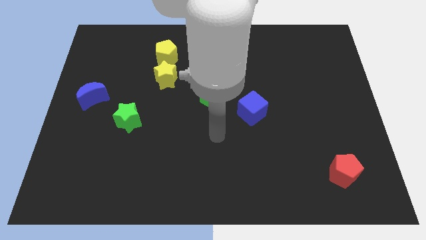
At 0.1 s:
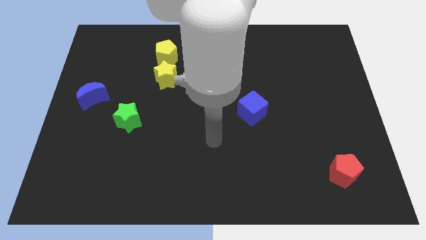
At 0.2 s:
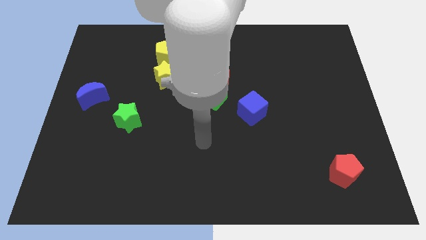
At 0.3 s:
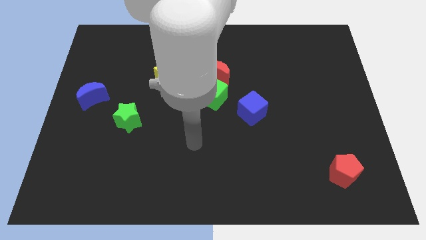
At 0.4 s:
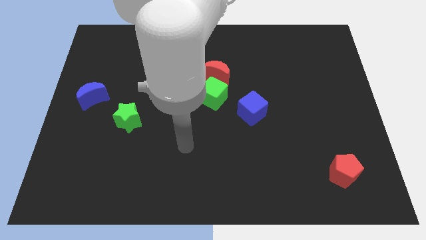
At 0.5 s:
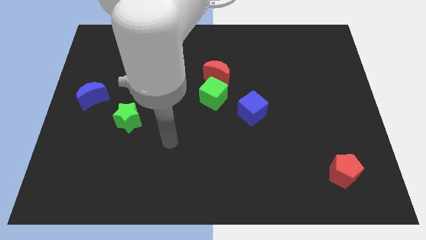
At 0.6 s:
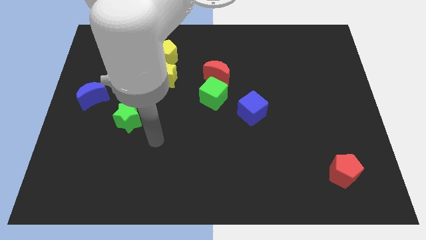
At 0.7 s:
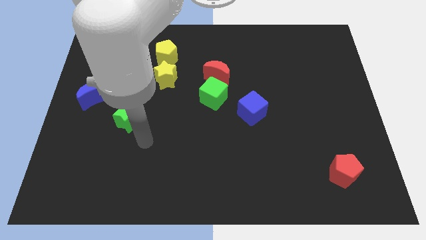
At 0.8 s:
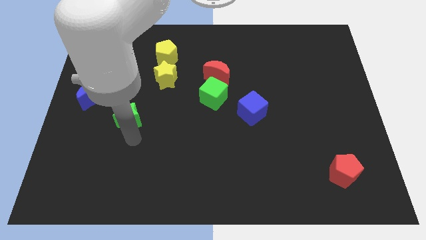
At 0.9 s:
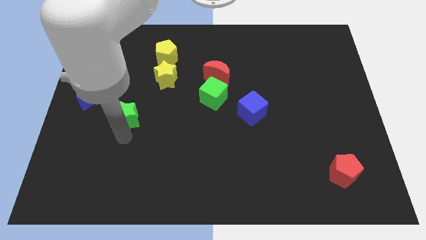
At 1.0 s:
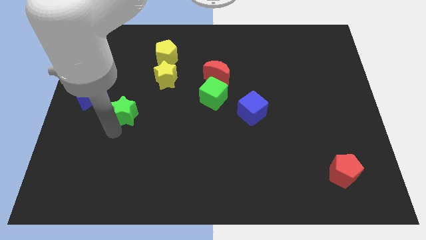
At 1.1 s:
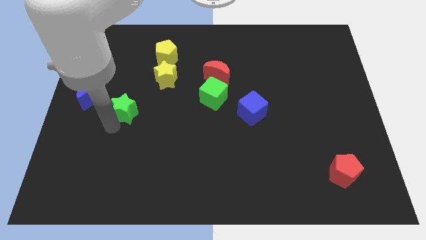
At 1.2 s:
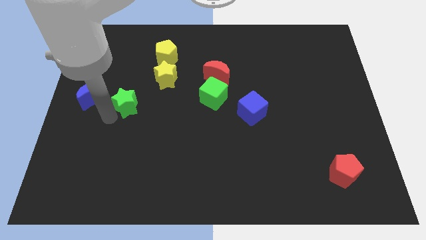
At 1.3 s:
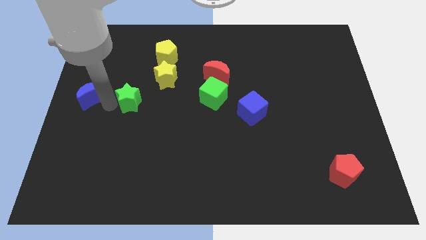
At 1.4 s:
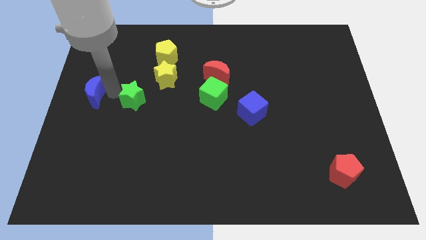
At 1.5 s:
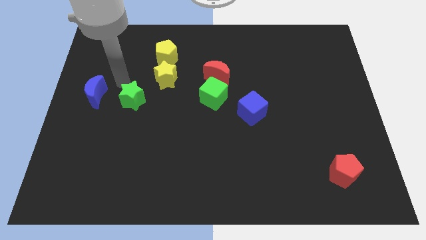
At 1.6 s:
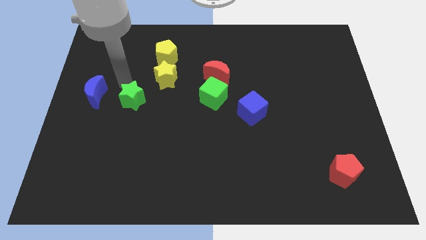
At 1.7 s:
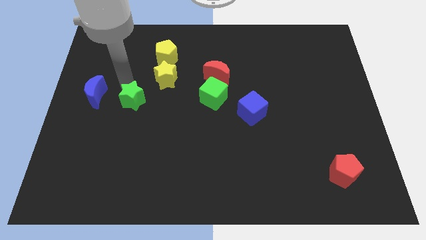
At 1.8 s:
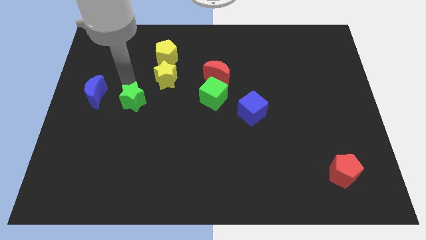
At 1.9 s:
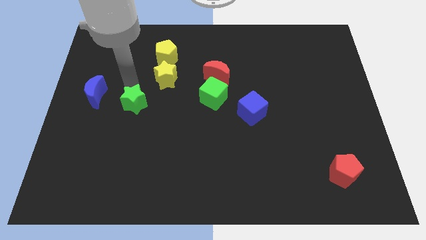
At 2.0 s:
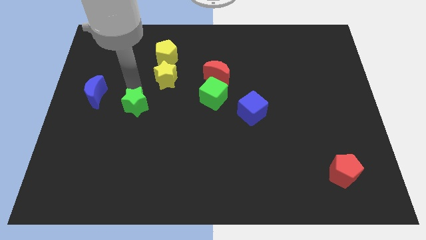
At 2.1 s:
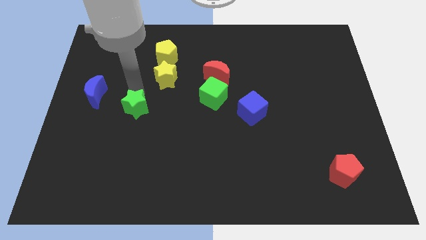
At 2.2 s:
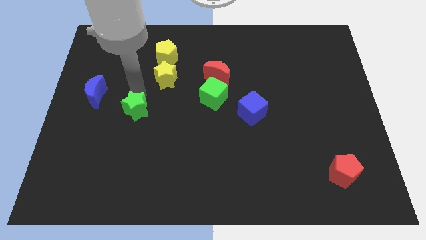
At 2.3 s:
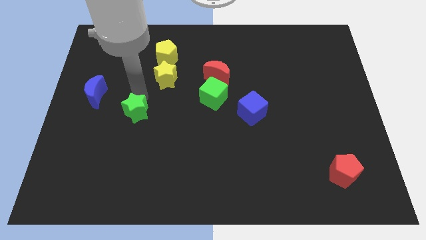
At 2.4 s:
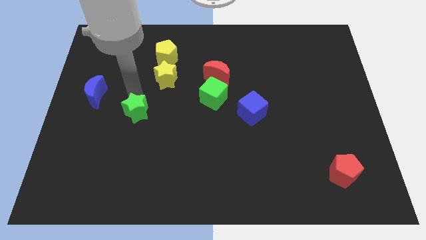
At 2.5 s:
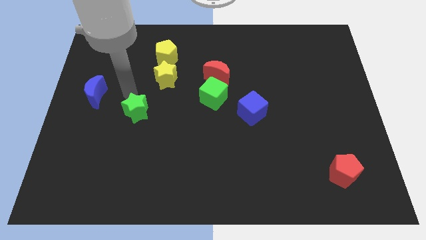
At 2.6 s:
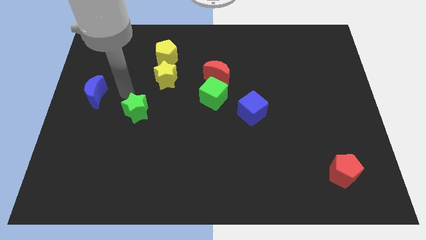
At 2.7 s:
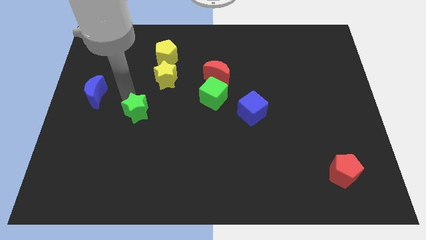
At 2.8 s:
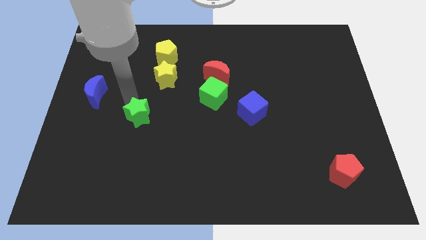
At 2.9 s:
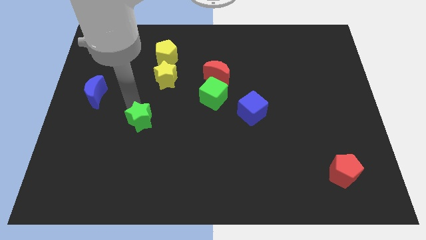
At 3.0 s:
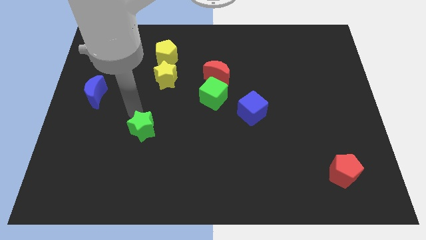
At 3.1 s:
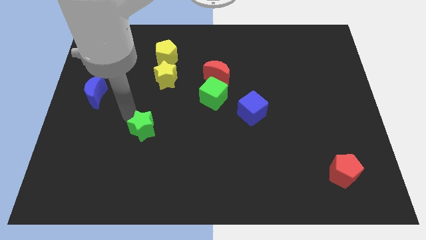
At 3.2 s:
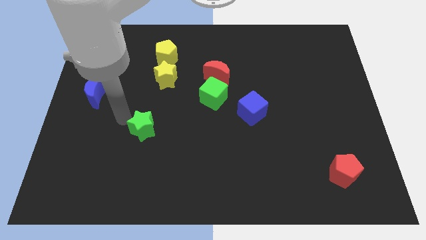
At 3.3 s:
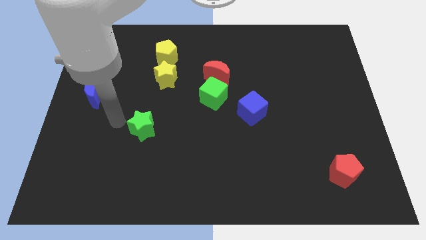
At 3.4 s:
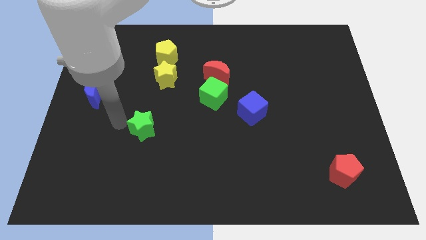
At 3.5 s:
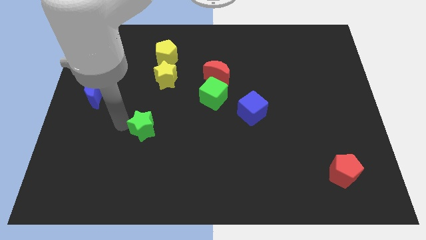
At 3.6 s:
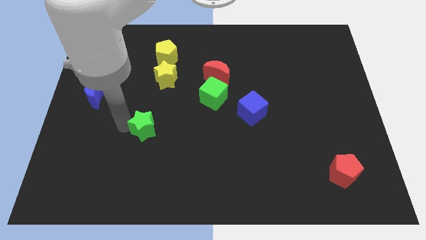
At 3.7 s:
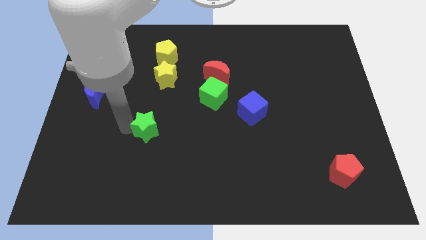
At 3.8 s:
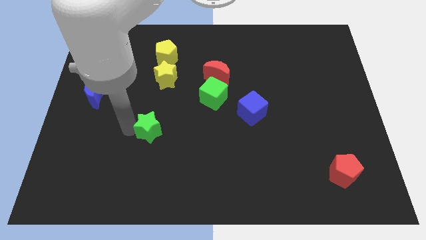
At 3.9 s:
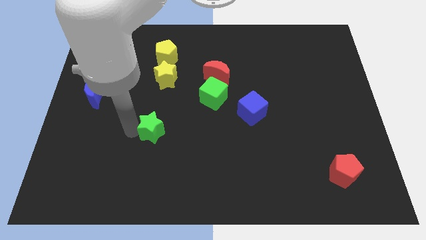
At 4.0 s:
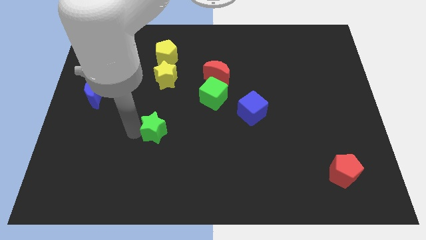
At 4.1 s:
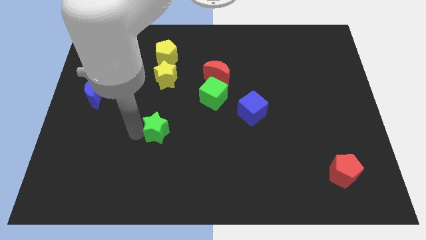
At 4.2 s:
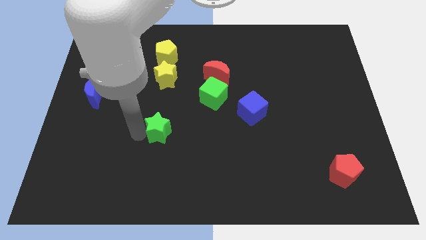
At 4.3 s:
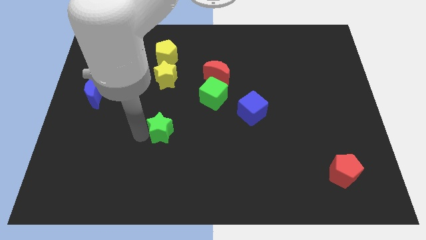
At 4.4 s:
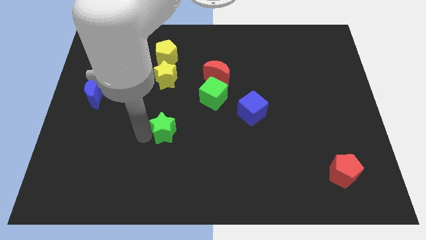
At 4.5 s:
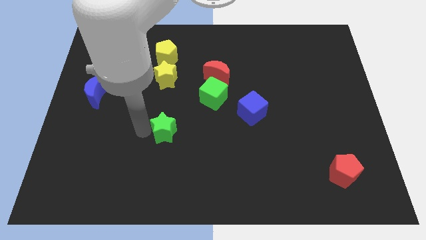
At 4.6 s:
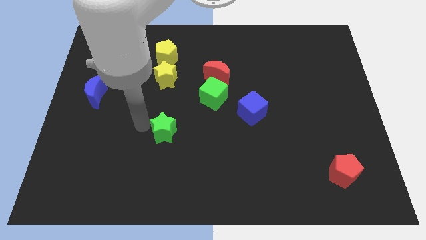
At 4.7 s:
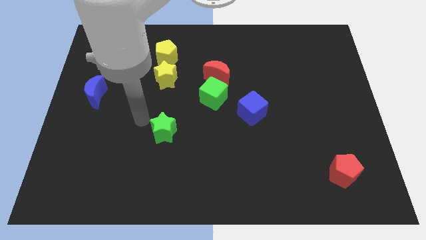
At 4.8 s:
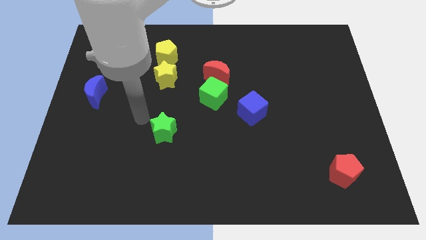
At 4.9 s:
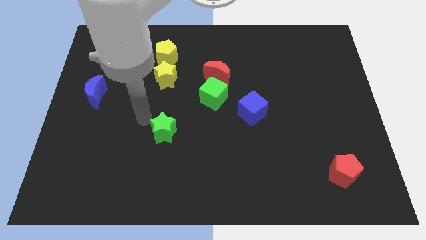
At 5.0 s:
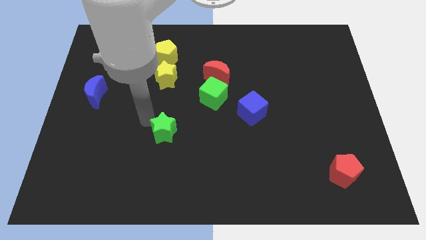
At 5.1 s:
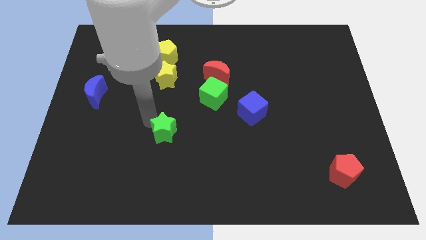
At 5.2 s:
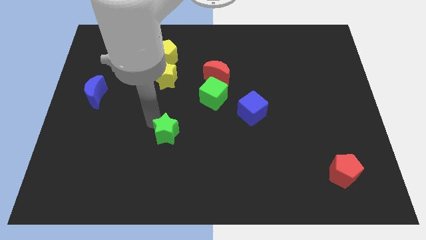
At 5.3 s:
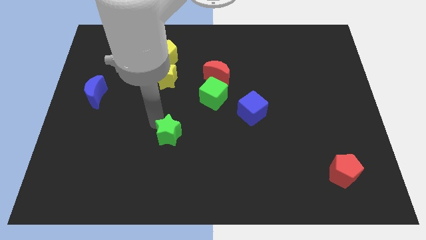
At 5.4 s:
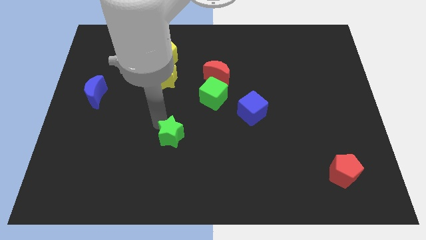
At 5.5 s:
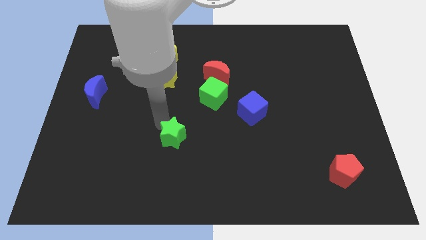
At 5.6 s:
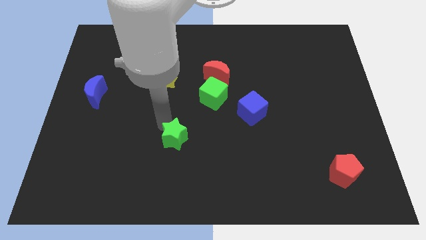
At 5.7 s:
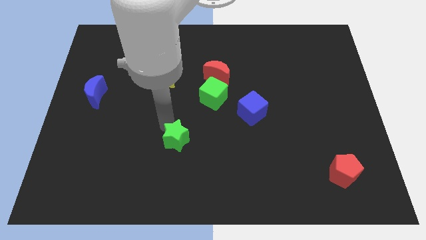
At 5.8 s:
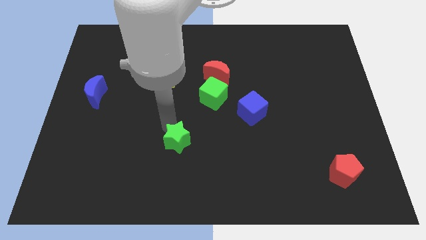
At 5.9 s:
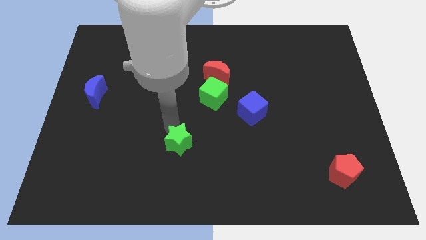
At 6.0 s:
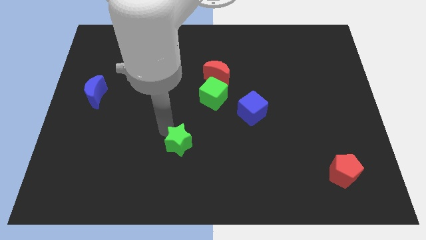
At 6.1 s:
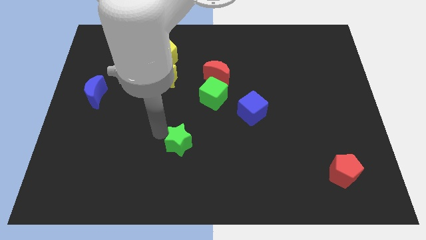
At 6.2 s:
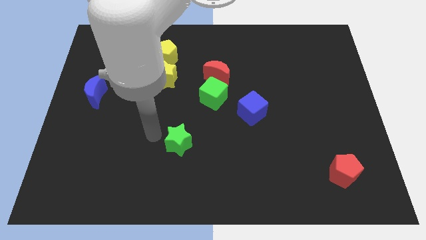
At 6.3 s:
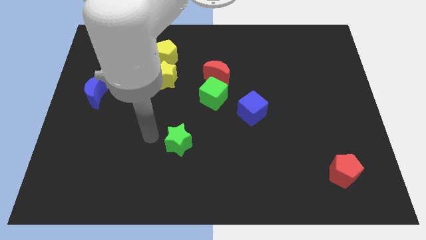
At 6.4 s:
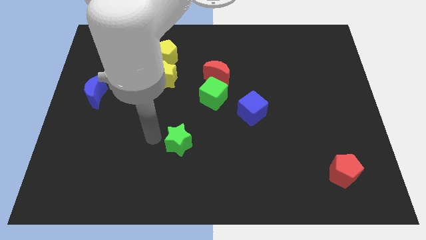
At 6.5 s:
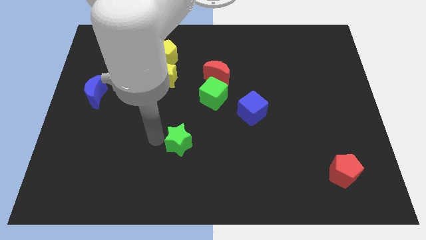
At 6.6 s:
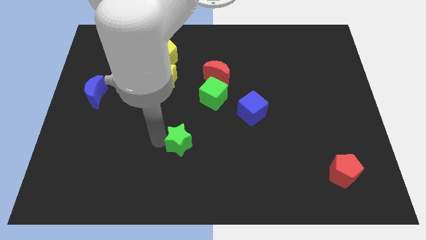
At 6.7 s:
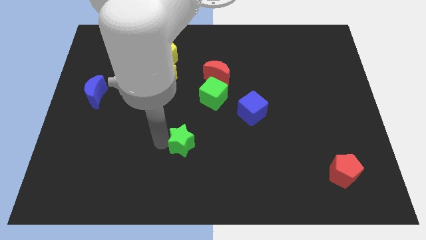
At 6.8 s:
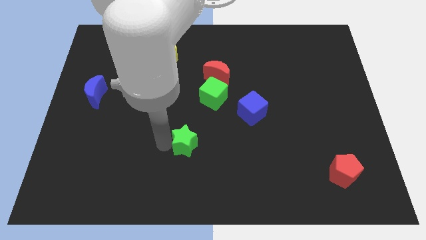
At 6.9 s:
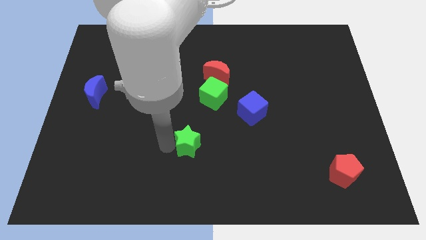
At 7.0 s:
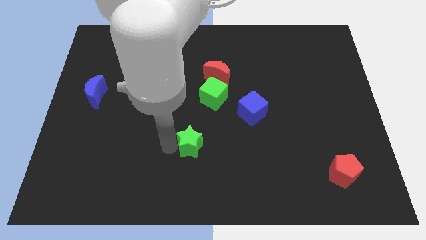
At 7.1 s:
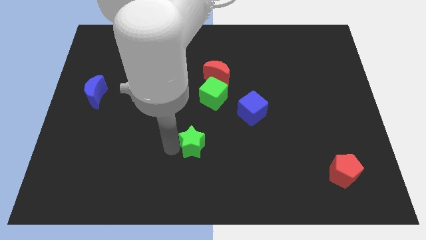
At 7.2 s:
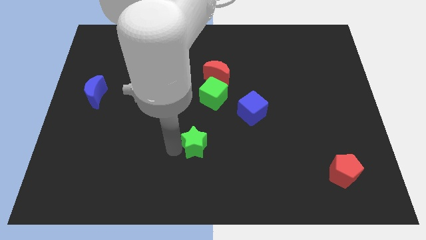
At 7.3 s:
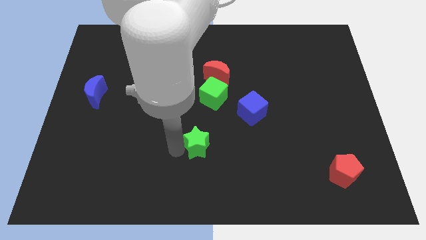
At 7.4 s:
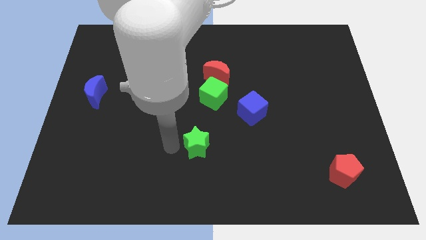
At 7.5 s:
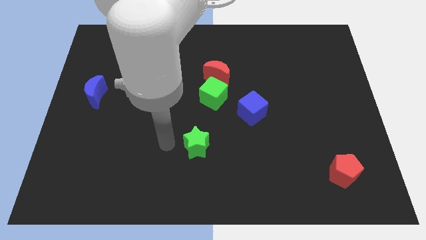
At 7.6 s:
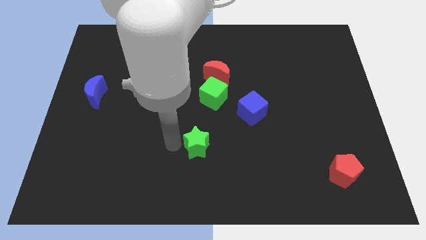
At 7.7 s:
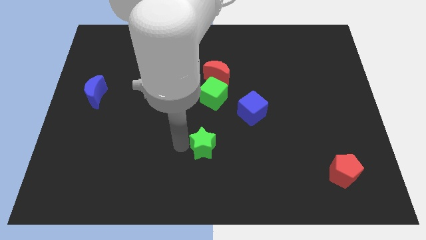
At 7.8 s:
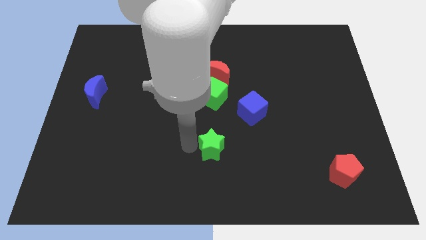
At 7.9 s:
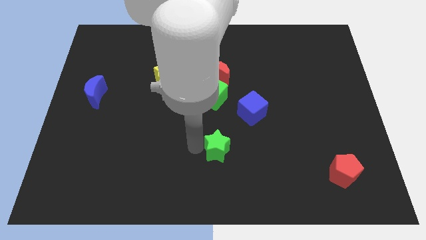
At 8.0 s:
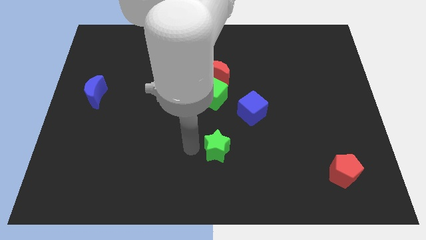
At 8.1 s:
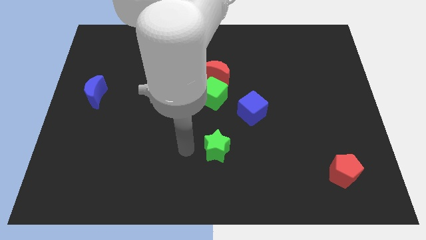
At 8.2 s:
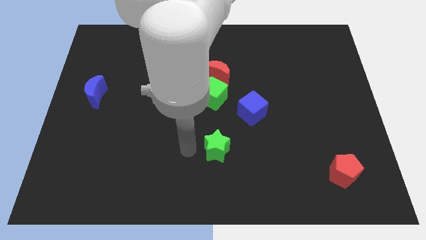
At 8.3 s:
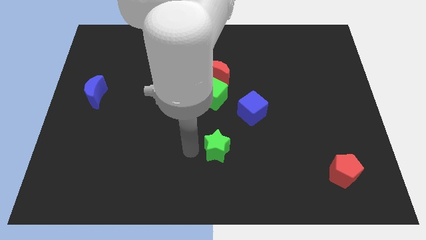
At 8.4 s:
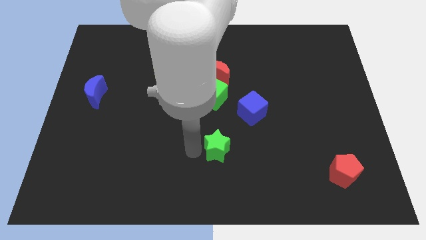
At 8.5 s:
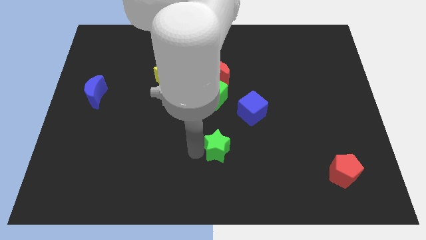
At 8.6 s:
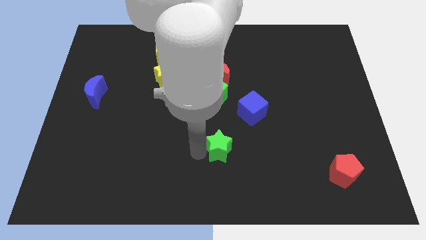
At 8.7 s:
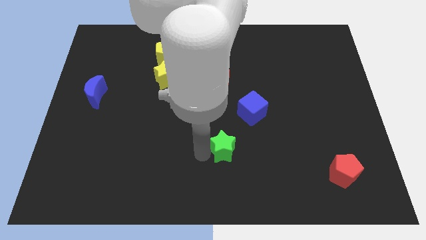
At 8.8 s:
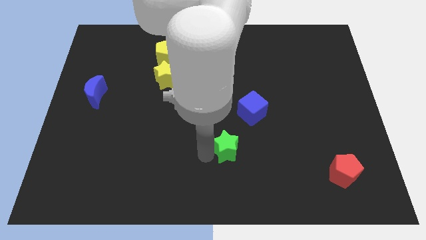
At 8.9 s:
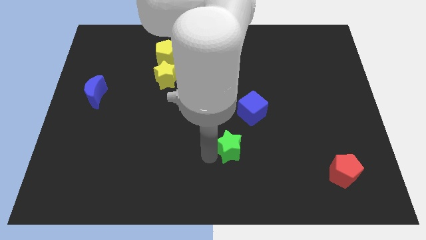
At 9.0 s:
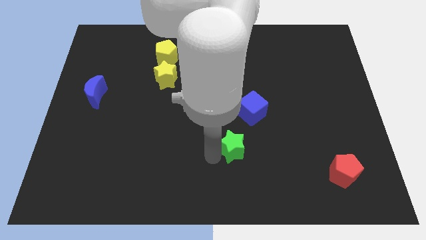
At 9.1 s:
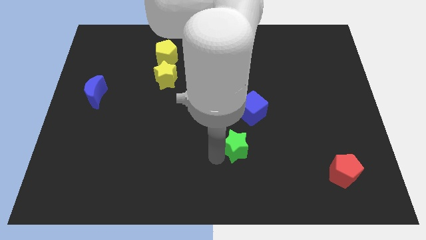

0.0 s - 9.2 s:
move the green star to the bottom of the blue cube
